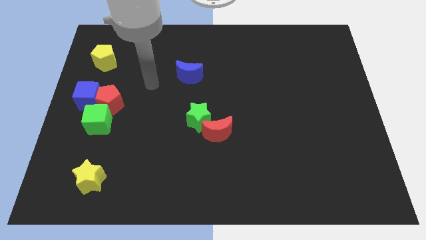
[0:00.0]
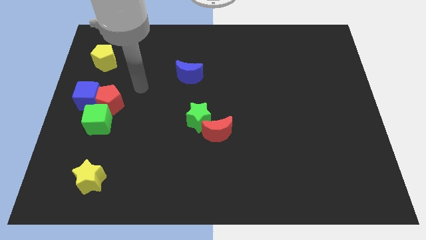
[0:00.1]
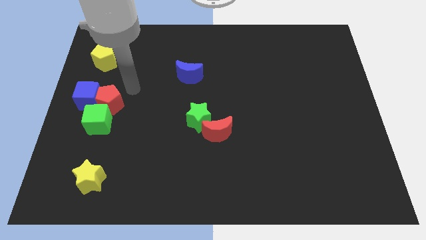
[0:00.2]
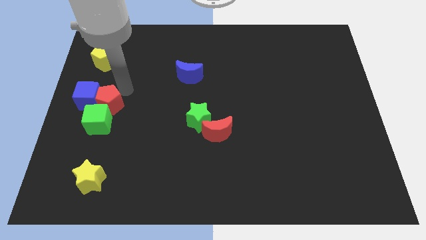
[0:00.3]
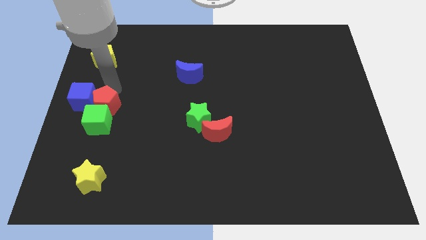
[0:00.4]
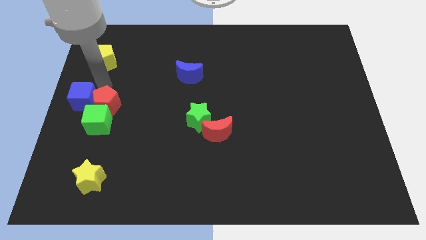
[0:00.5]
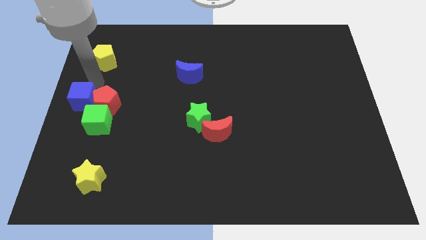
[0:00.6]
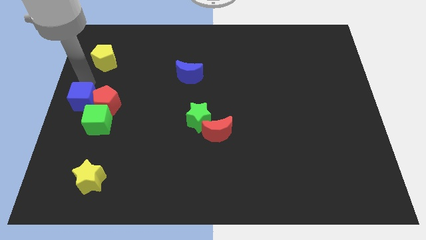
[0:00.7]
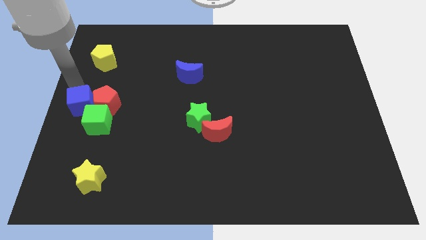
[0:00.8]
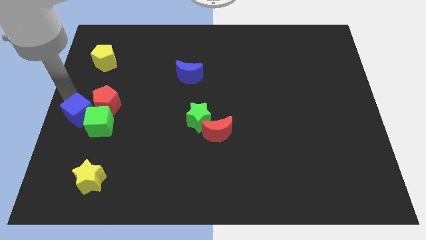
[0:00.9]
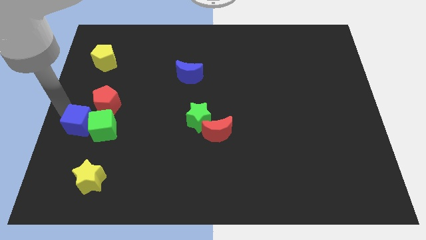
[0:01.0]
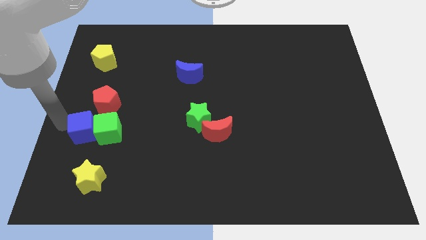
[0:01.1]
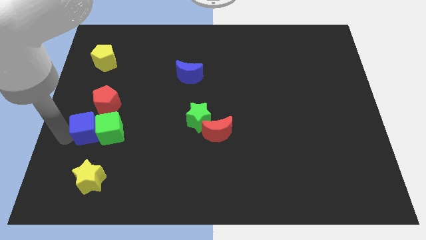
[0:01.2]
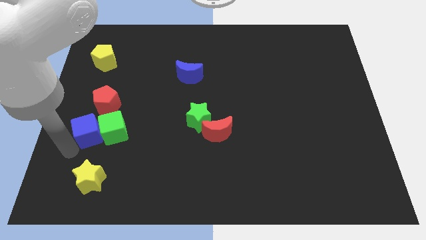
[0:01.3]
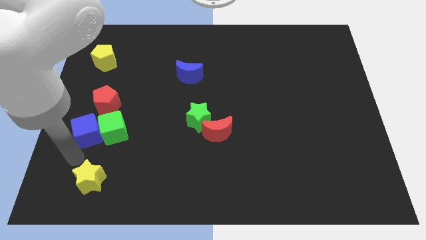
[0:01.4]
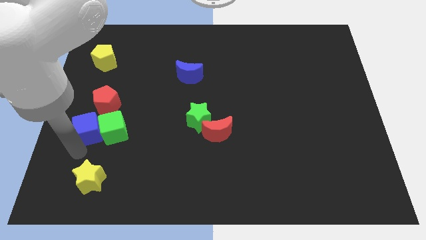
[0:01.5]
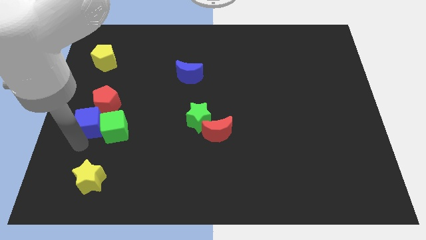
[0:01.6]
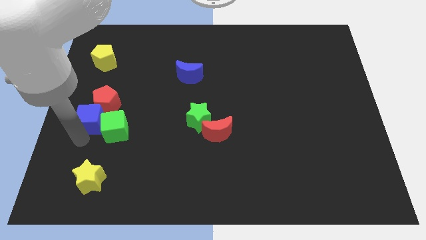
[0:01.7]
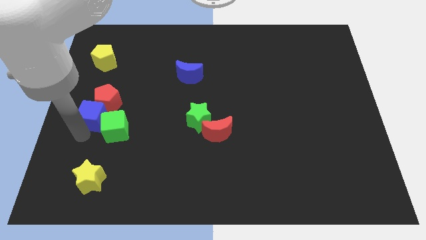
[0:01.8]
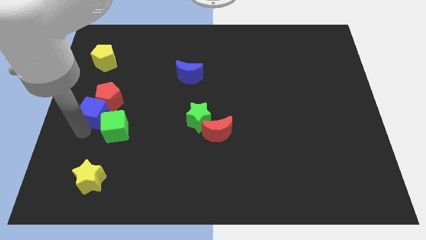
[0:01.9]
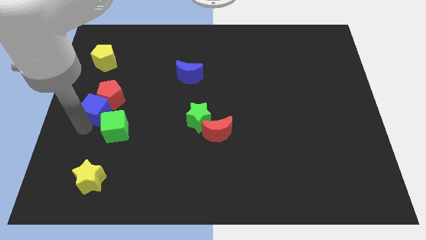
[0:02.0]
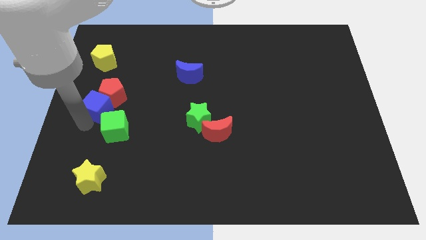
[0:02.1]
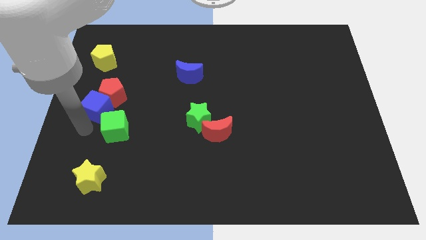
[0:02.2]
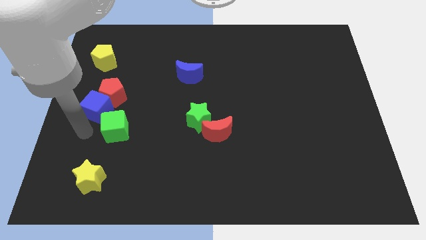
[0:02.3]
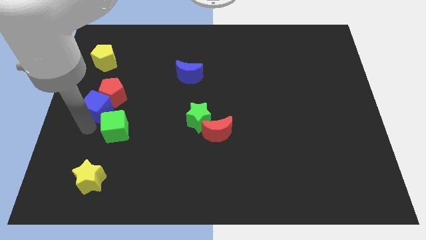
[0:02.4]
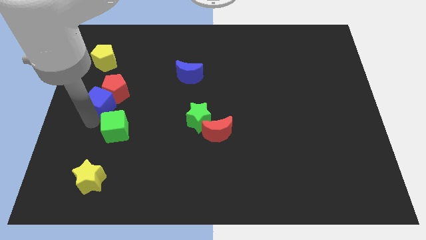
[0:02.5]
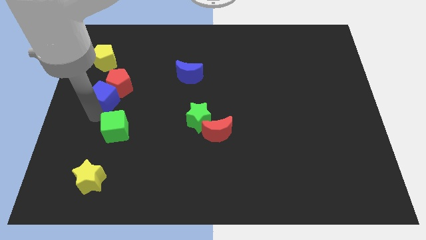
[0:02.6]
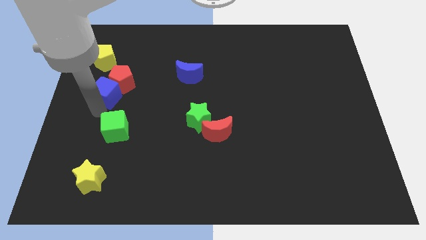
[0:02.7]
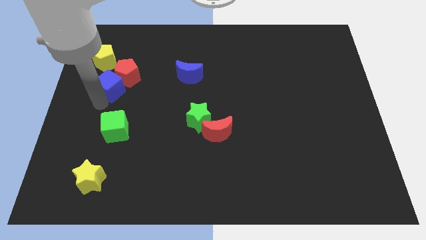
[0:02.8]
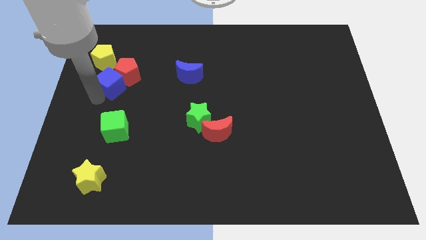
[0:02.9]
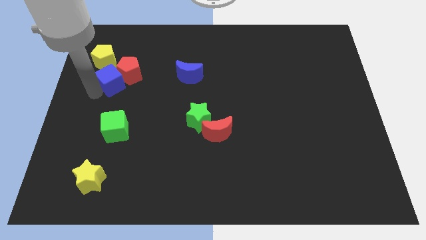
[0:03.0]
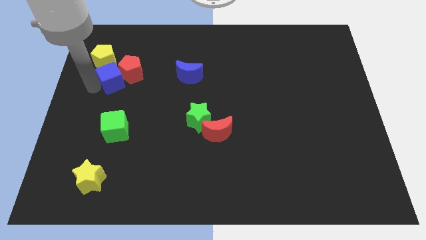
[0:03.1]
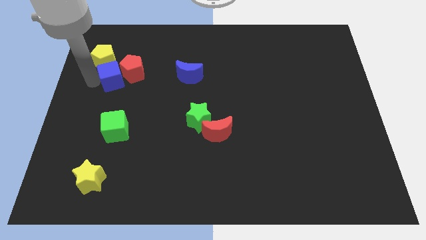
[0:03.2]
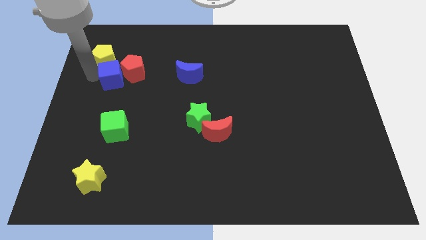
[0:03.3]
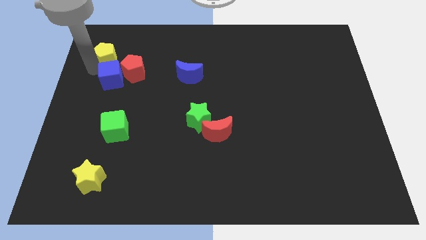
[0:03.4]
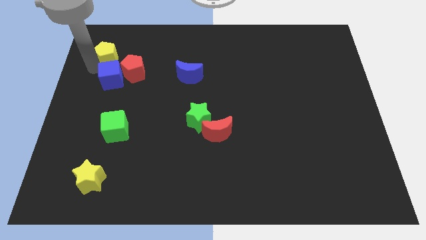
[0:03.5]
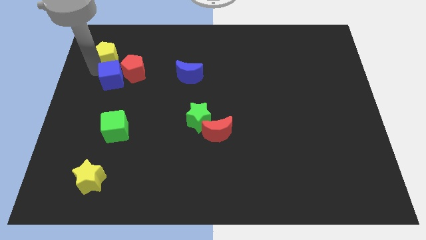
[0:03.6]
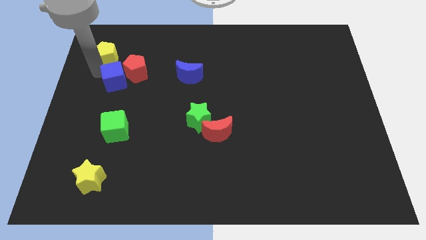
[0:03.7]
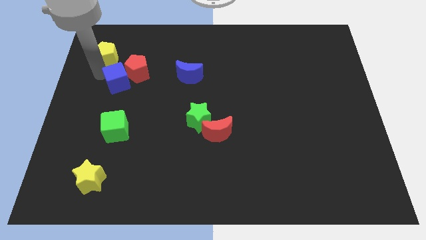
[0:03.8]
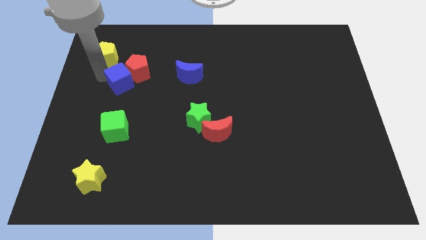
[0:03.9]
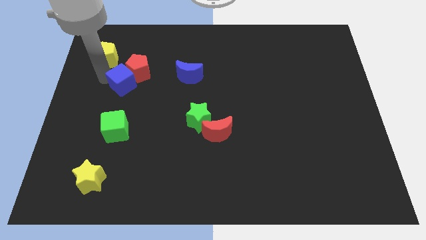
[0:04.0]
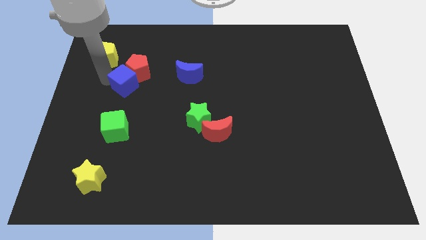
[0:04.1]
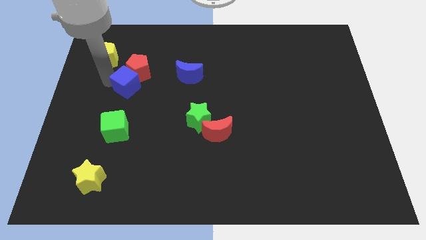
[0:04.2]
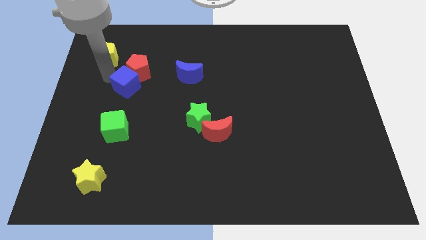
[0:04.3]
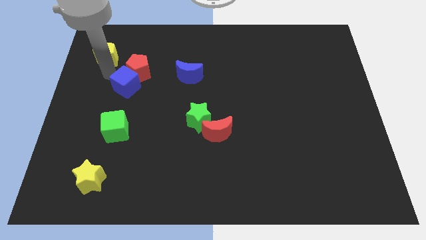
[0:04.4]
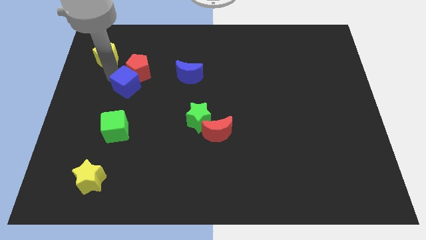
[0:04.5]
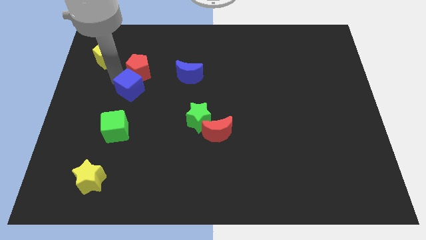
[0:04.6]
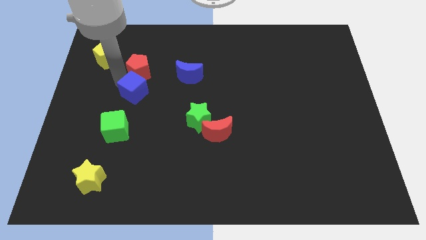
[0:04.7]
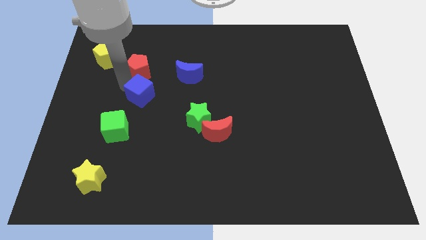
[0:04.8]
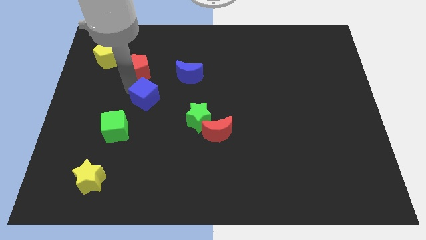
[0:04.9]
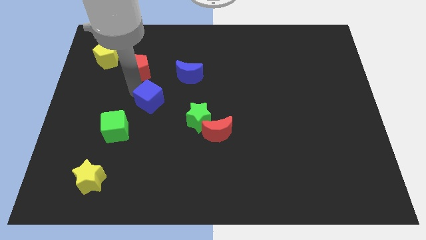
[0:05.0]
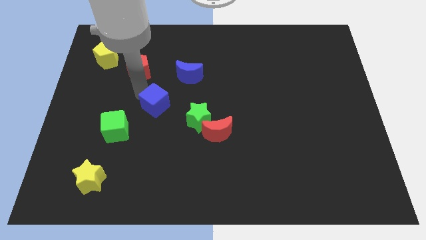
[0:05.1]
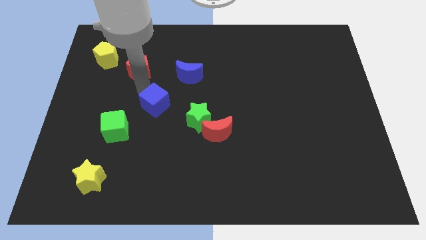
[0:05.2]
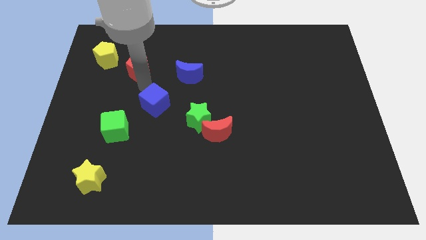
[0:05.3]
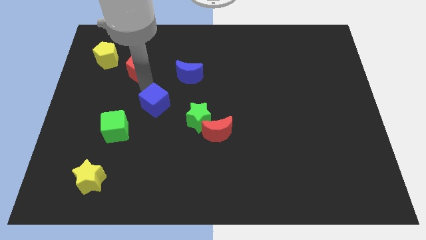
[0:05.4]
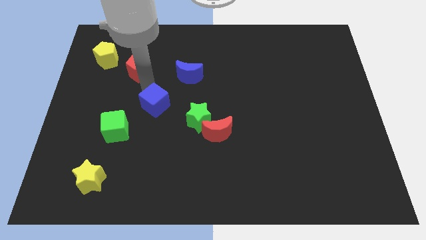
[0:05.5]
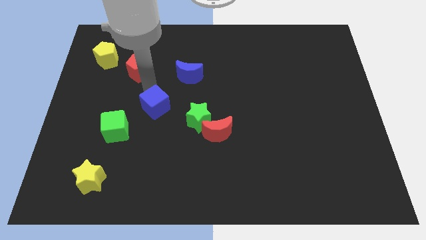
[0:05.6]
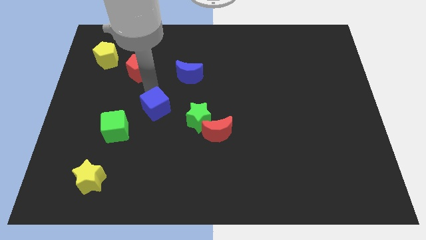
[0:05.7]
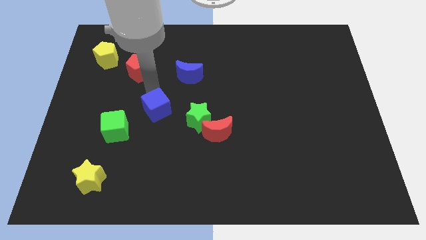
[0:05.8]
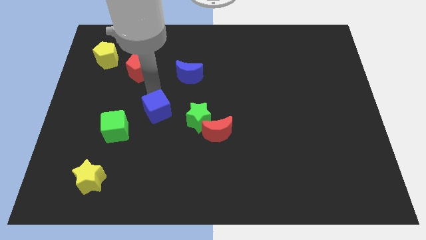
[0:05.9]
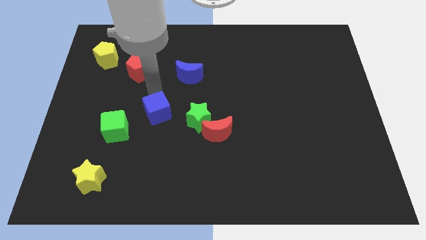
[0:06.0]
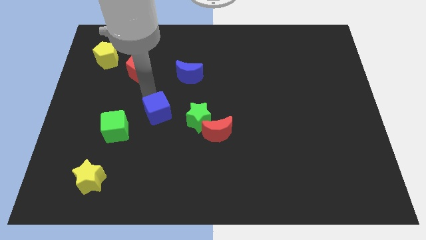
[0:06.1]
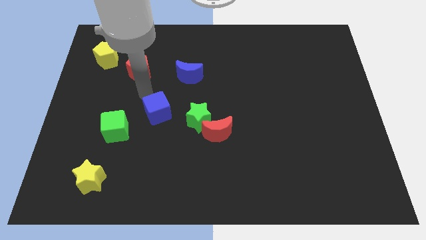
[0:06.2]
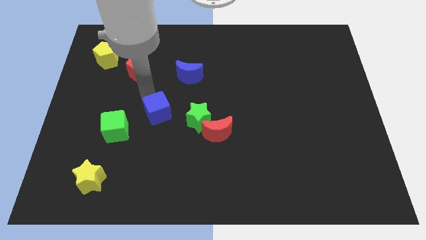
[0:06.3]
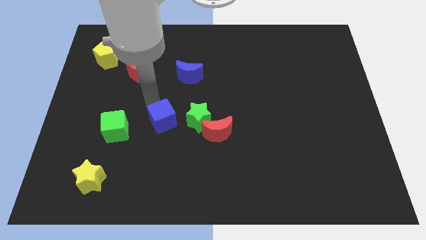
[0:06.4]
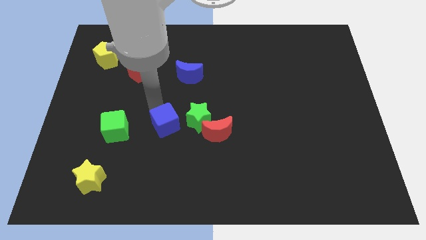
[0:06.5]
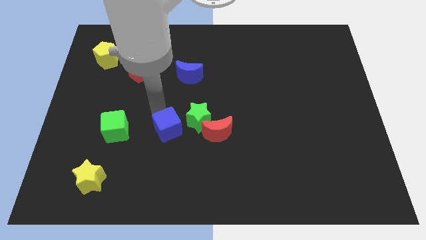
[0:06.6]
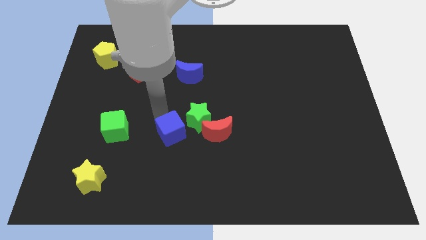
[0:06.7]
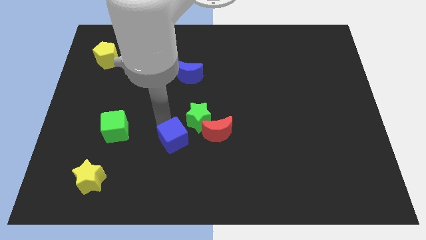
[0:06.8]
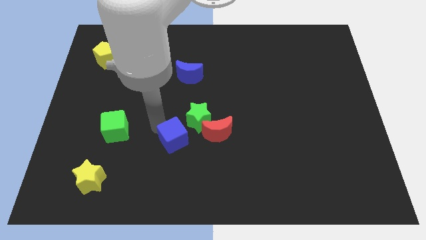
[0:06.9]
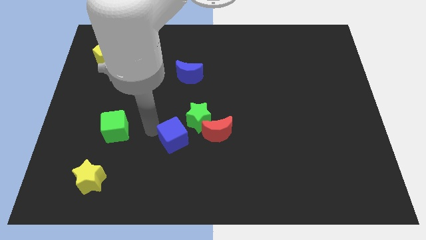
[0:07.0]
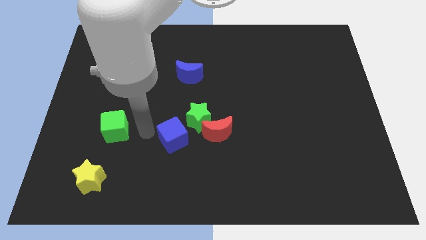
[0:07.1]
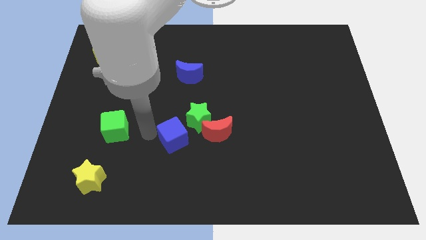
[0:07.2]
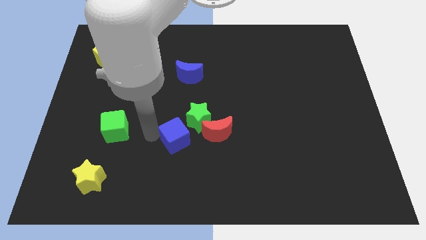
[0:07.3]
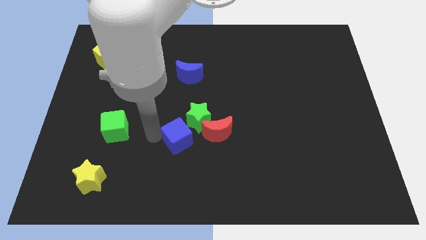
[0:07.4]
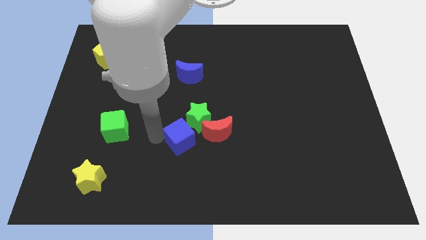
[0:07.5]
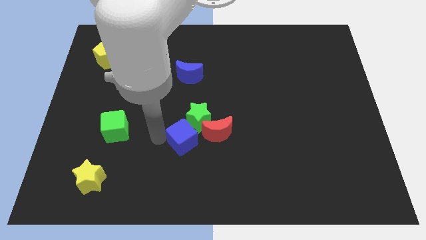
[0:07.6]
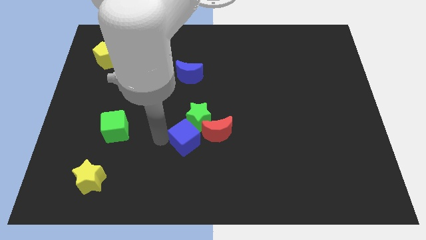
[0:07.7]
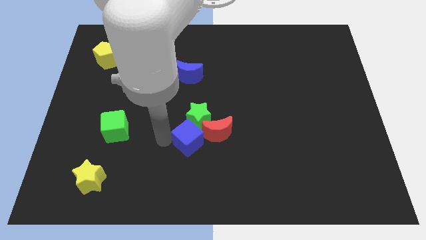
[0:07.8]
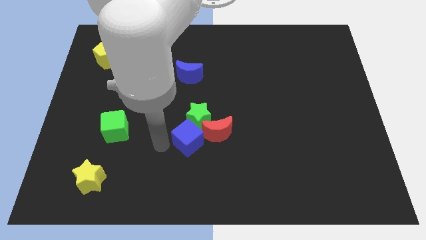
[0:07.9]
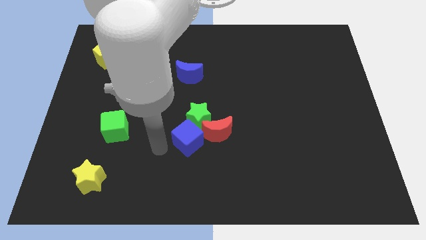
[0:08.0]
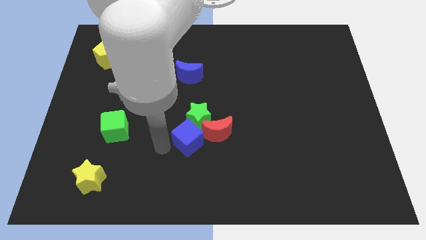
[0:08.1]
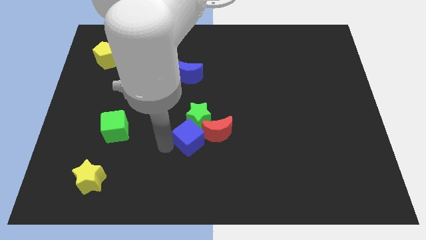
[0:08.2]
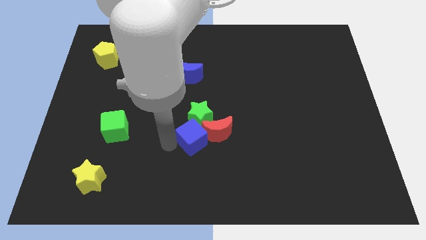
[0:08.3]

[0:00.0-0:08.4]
put the blue cube to the red moon
